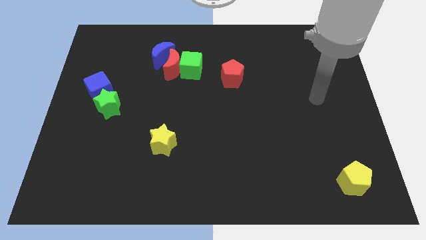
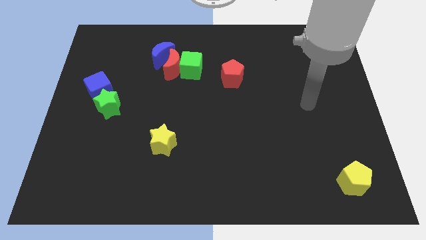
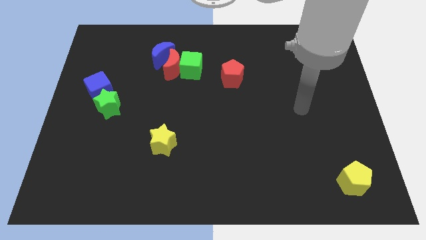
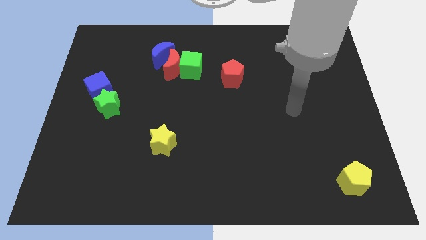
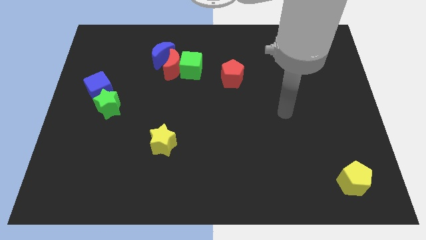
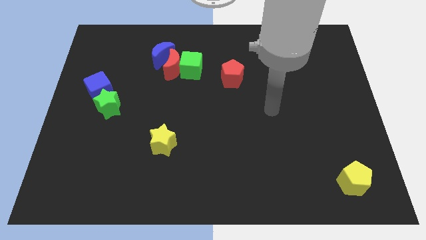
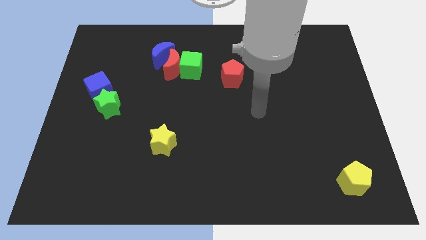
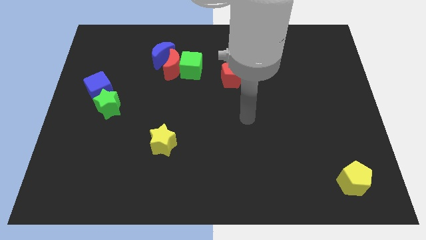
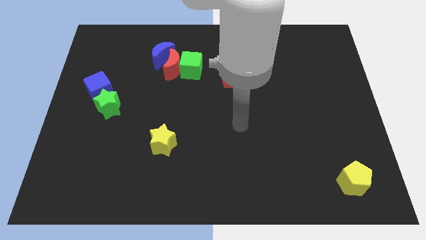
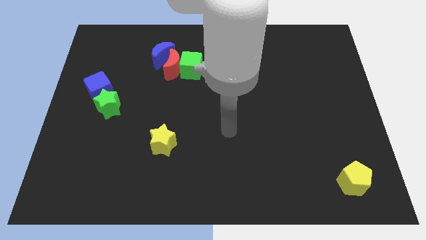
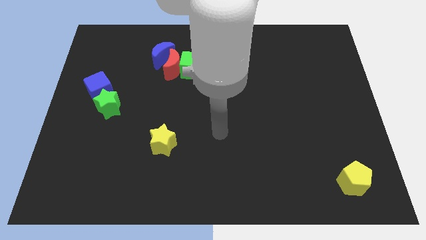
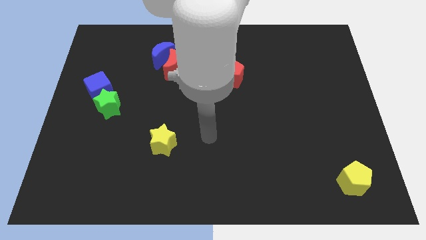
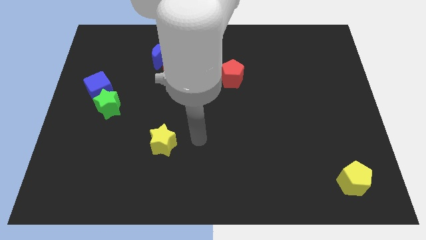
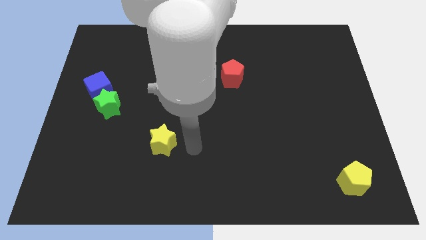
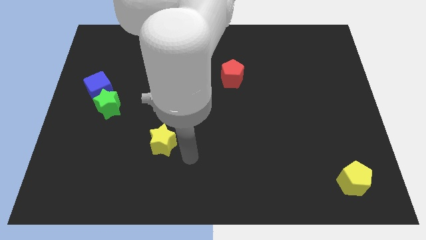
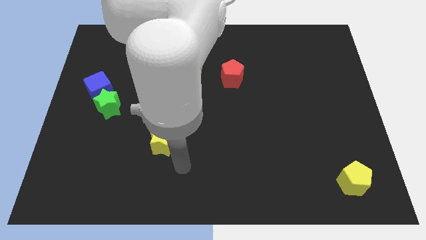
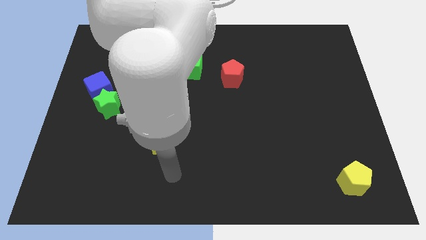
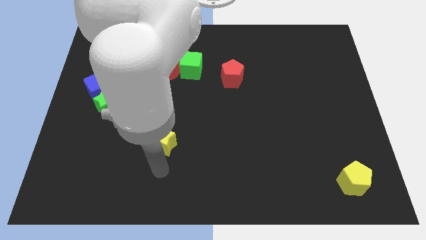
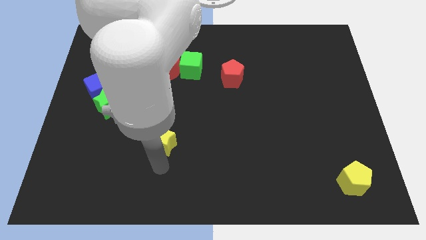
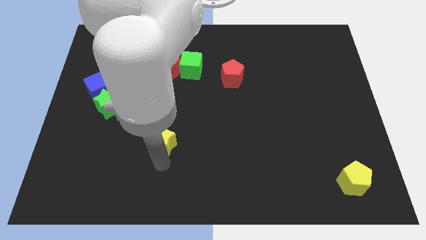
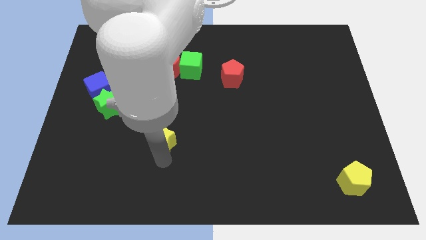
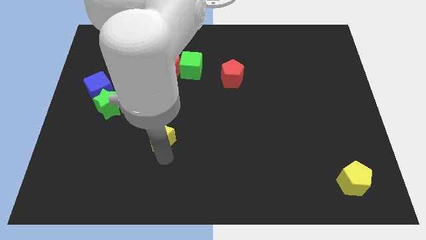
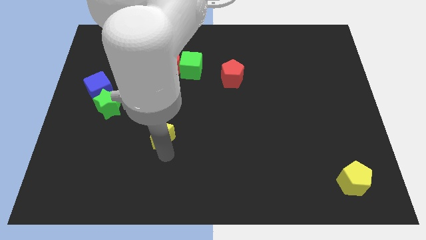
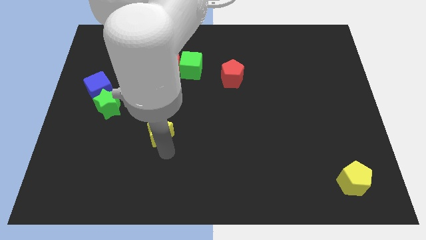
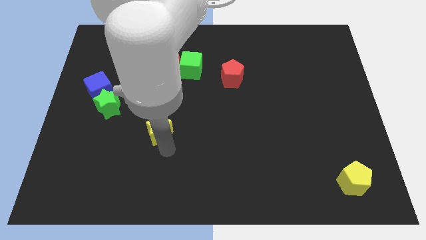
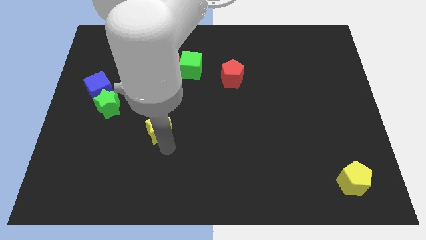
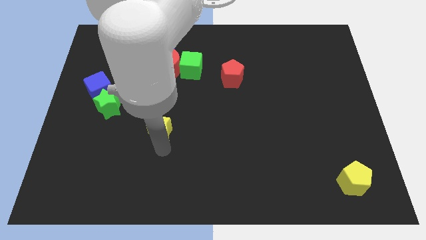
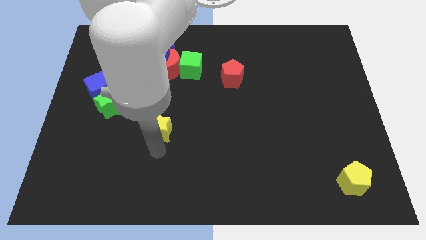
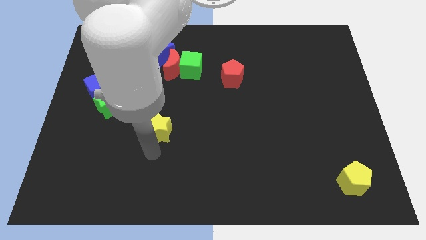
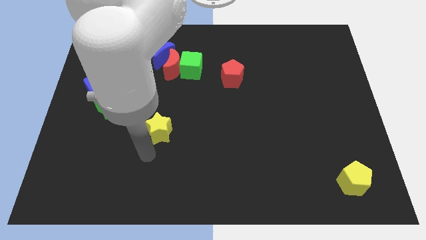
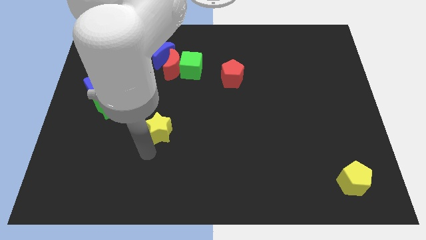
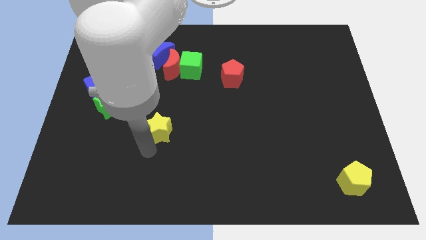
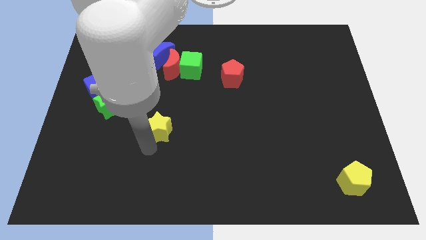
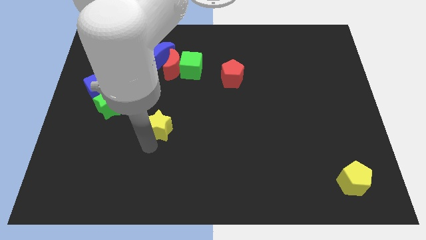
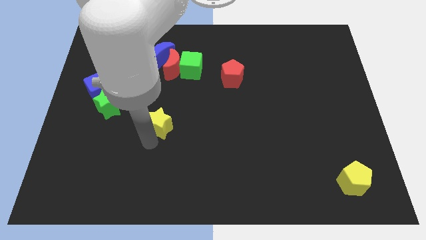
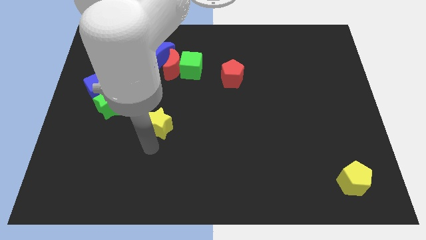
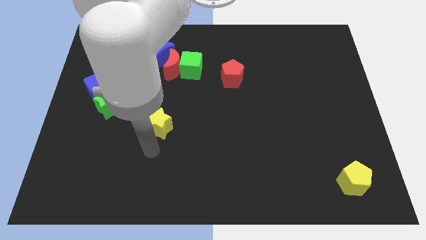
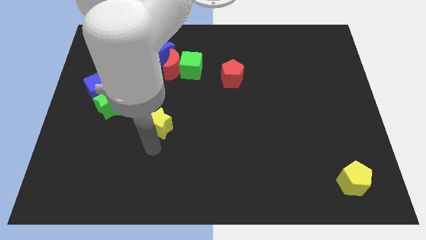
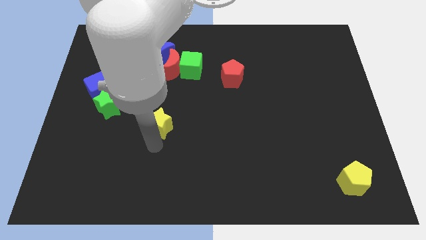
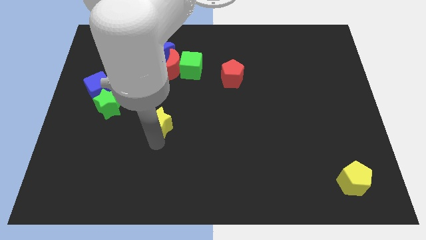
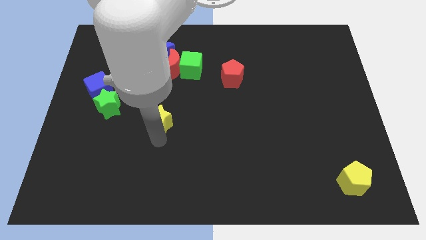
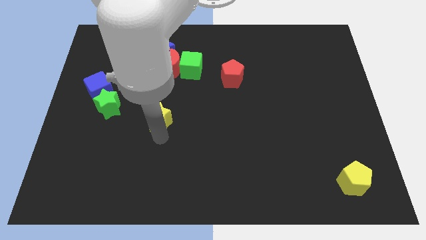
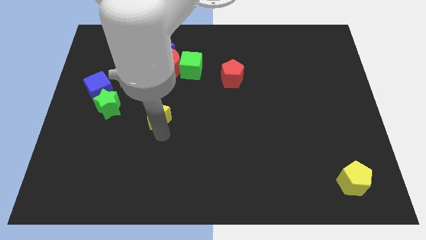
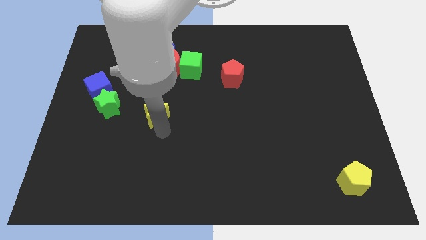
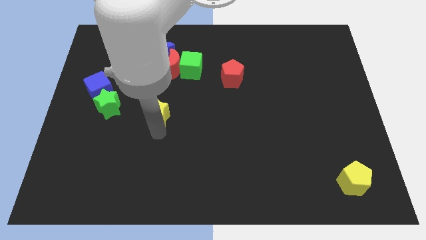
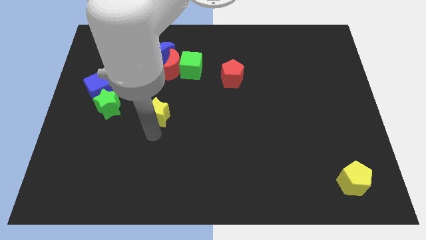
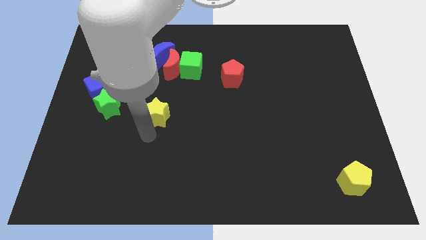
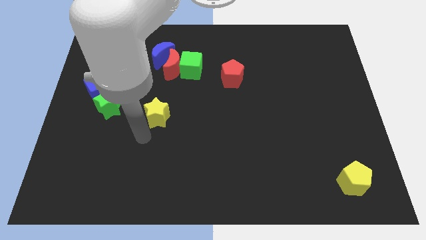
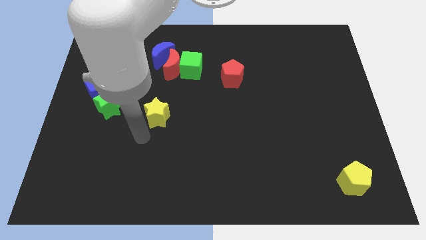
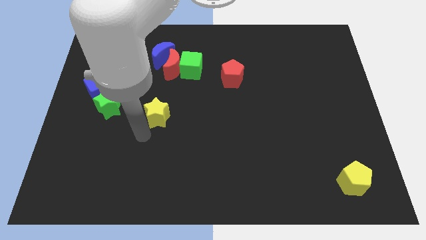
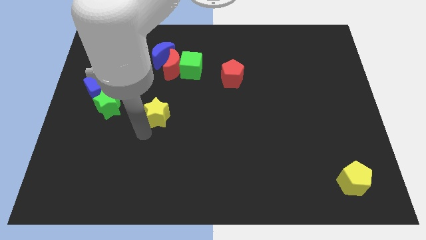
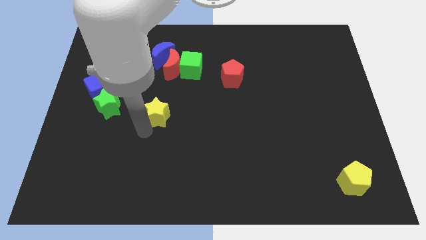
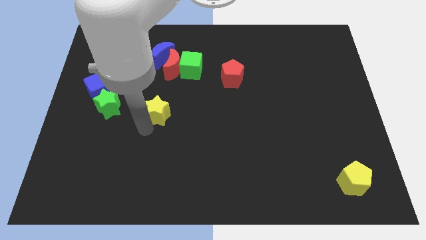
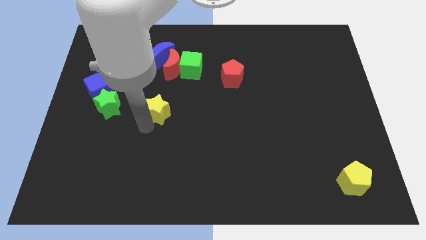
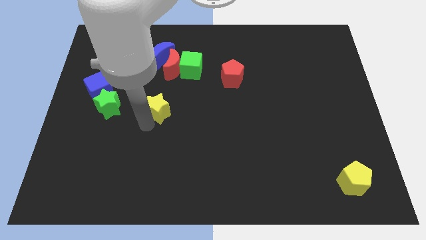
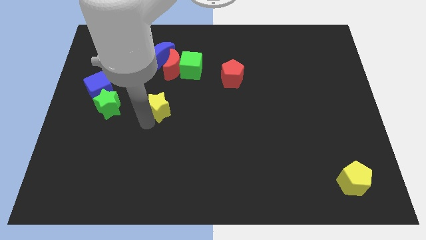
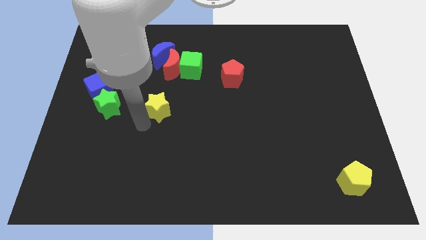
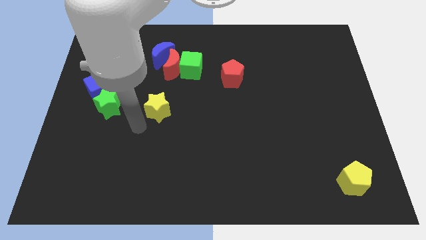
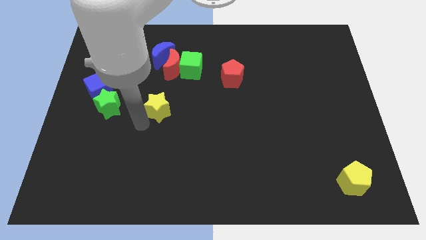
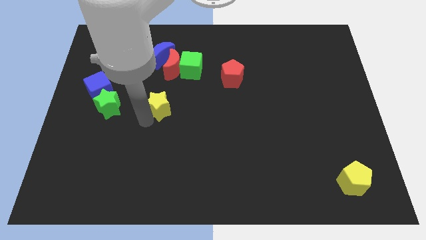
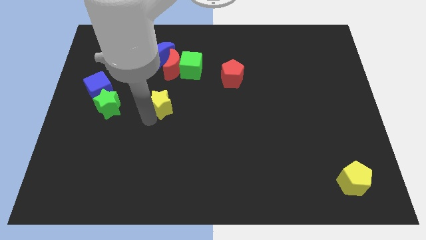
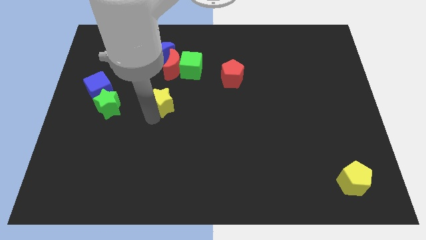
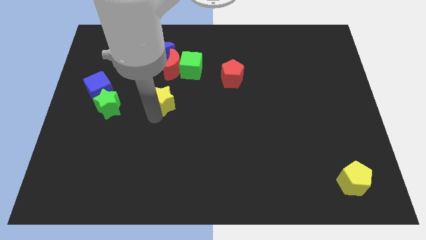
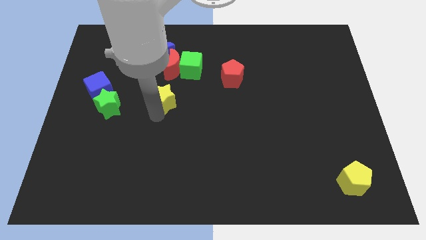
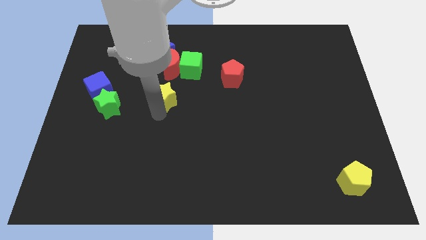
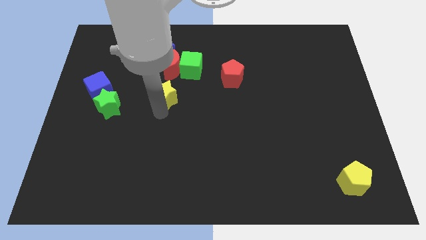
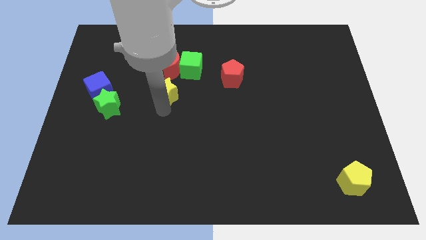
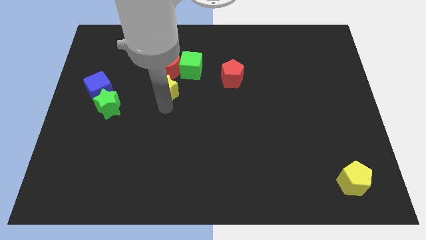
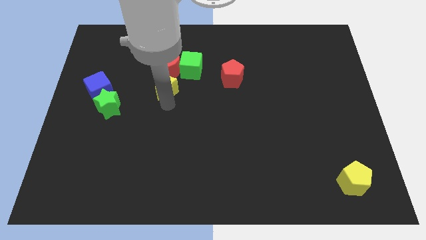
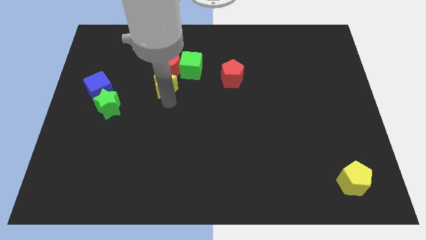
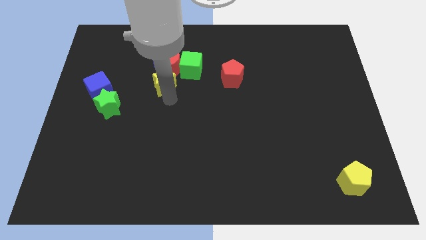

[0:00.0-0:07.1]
slide the yellow star next to the red moon

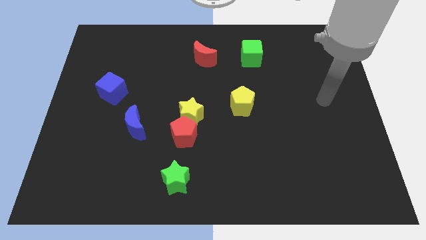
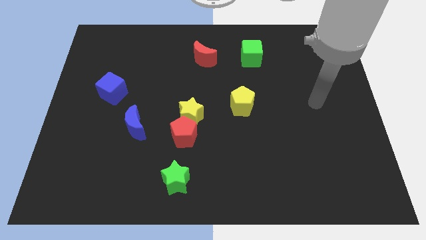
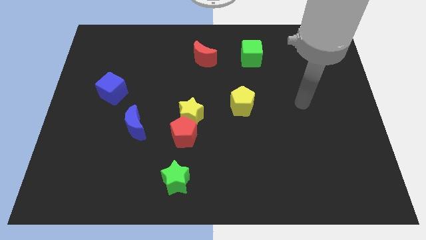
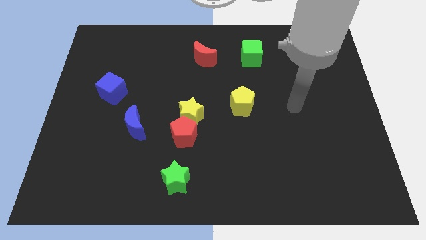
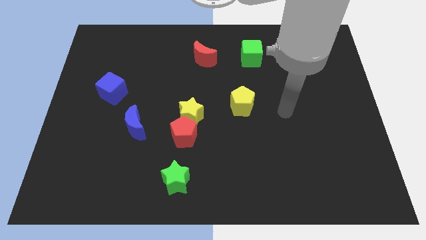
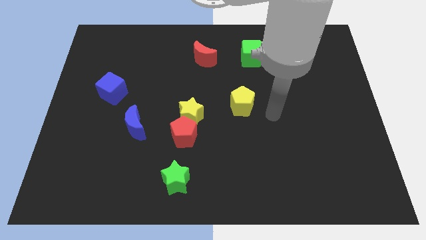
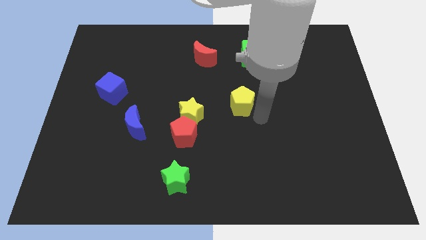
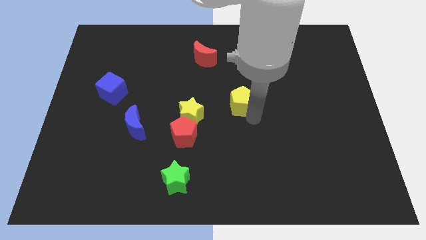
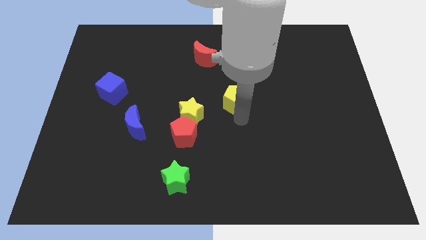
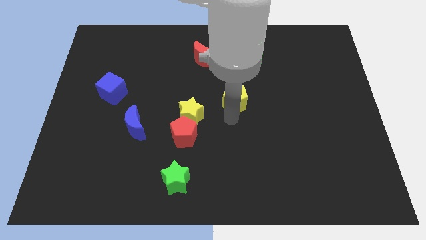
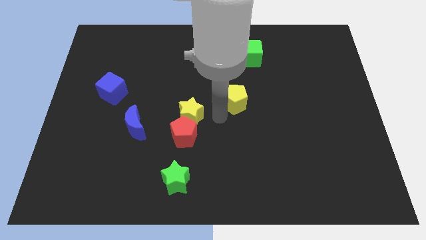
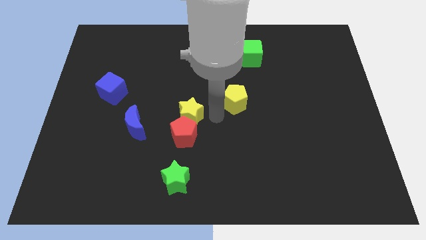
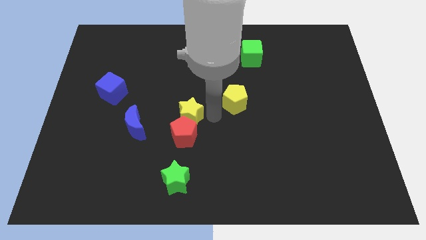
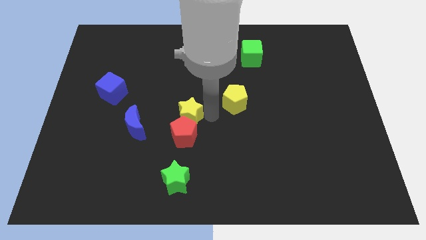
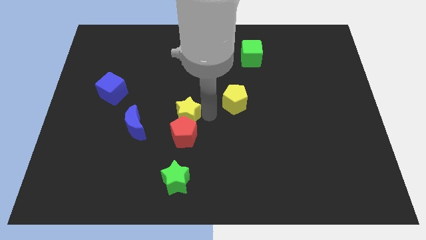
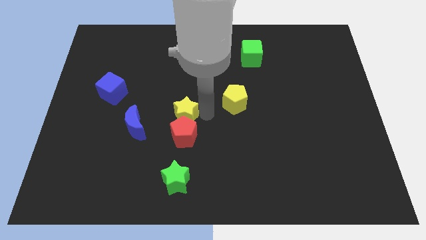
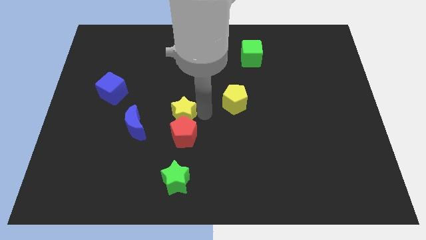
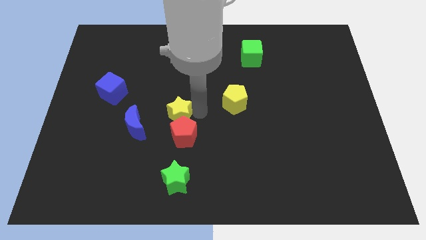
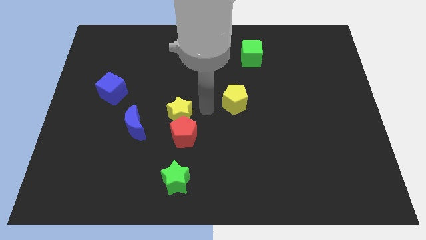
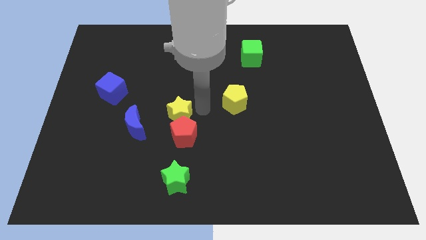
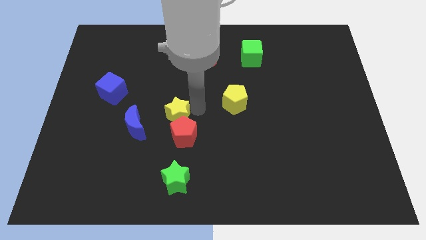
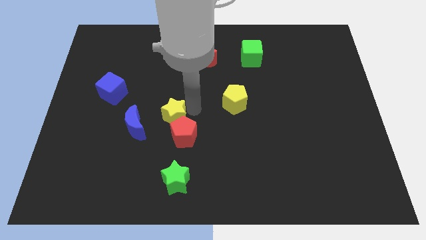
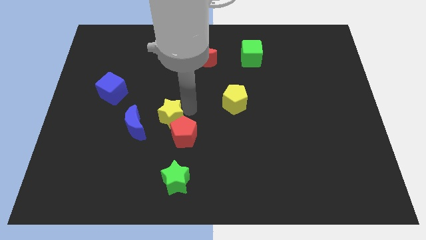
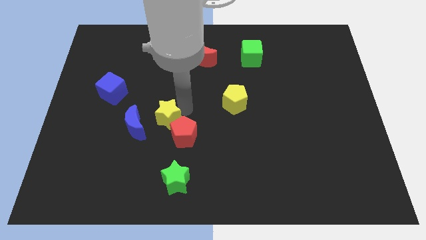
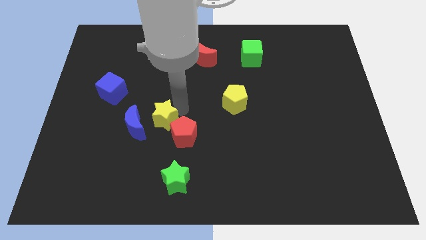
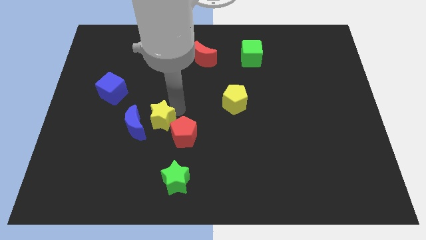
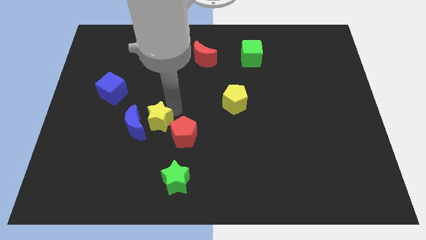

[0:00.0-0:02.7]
slide the yellow star next to the blue moon
